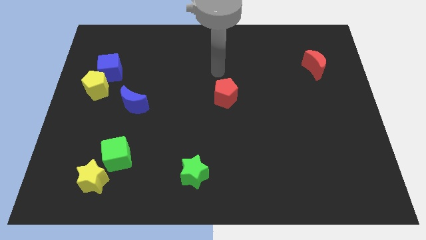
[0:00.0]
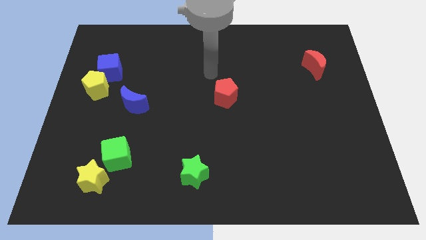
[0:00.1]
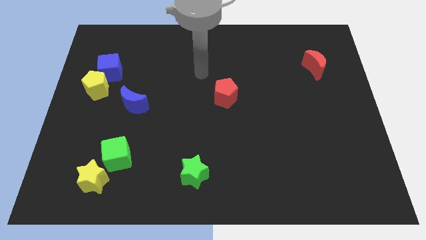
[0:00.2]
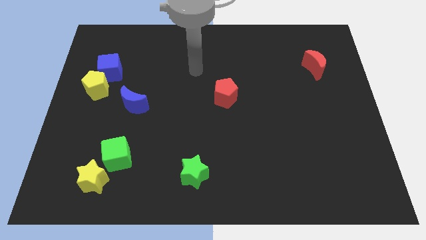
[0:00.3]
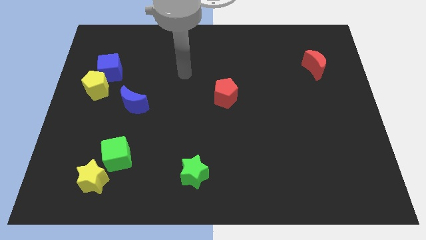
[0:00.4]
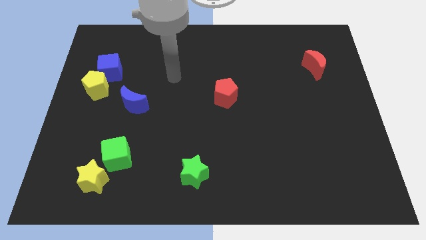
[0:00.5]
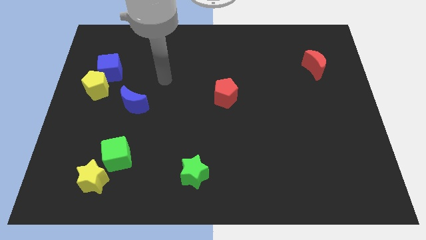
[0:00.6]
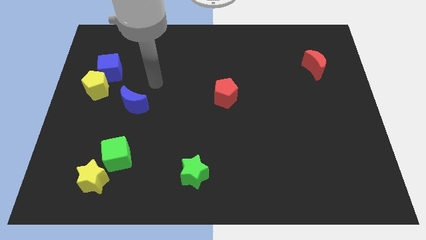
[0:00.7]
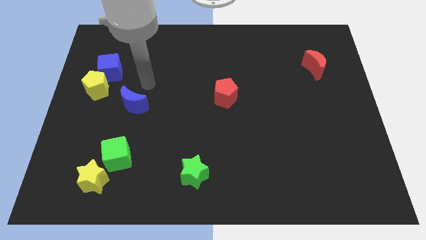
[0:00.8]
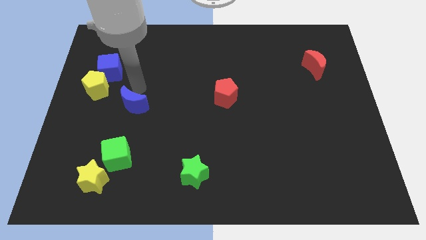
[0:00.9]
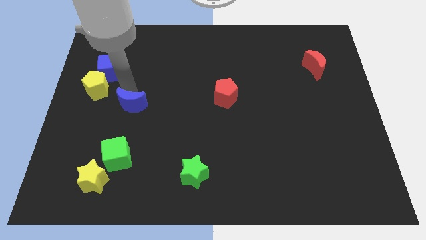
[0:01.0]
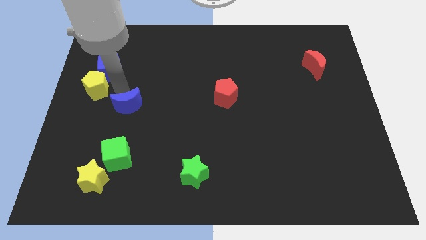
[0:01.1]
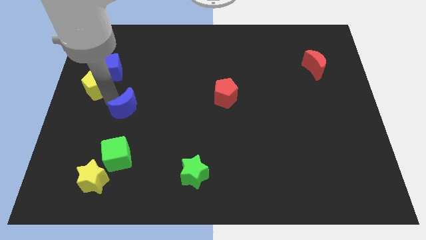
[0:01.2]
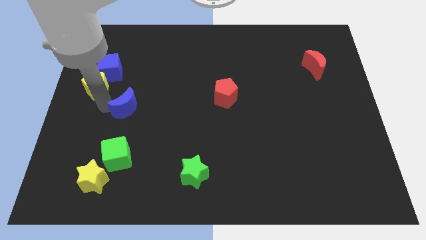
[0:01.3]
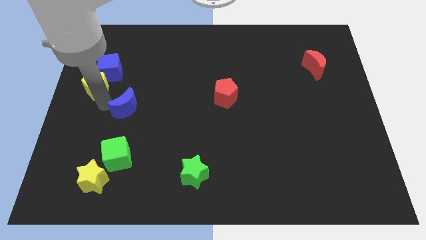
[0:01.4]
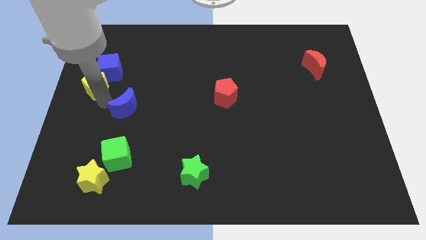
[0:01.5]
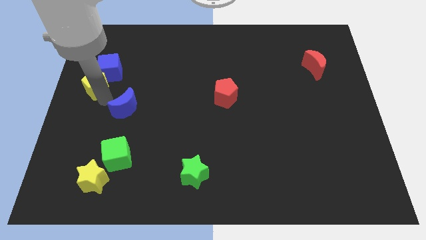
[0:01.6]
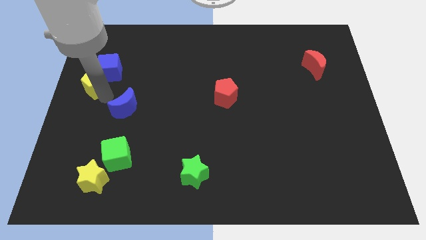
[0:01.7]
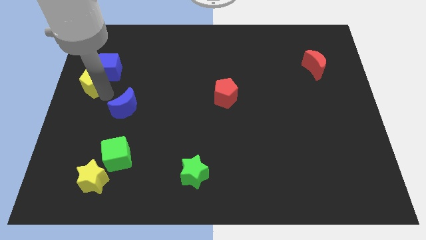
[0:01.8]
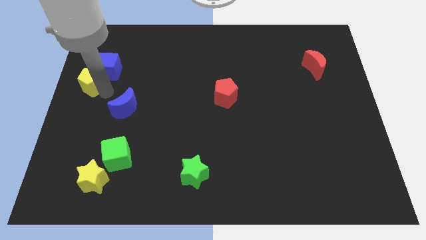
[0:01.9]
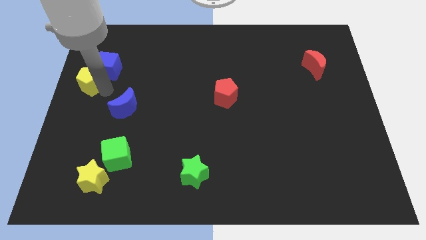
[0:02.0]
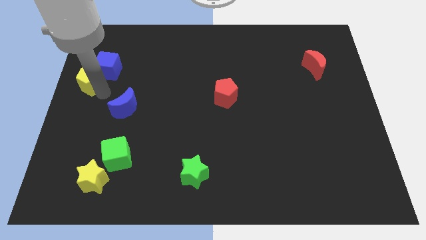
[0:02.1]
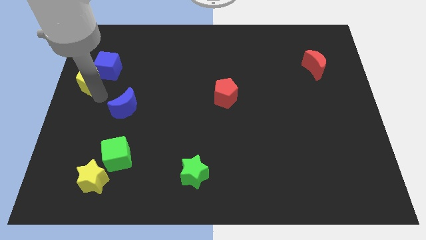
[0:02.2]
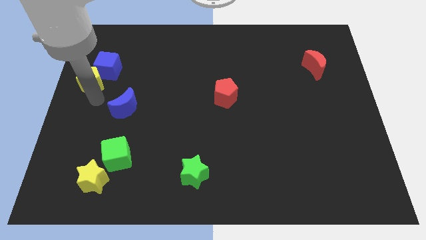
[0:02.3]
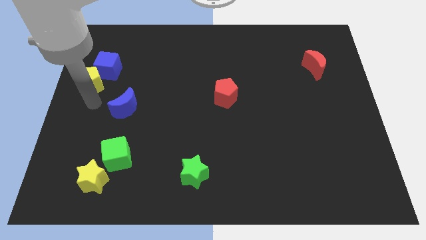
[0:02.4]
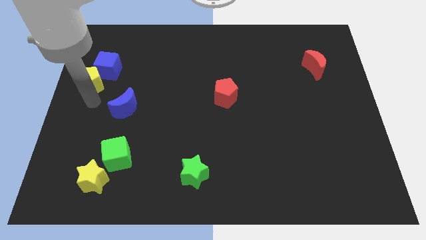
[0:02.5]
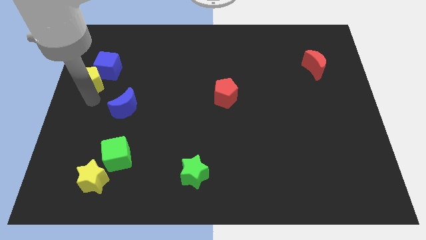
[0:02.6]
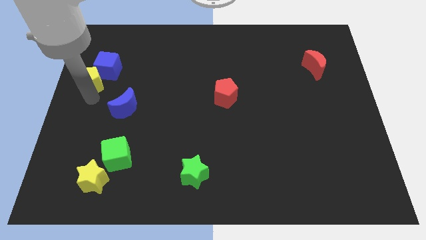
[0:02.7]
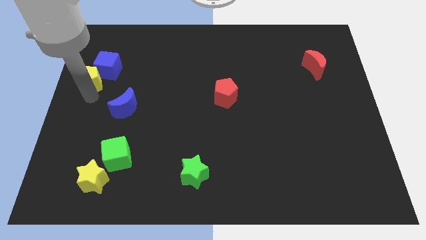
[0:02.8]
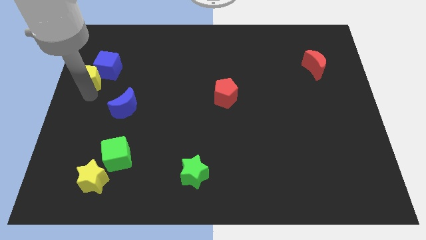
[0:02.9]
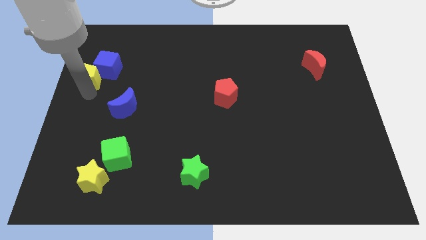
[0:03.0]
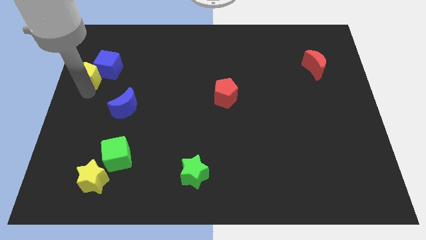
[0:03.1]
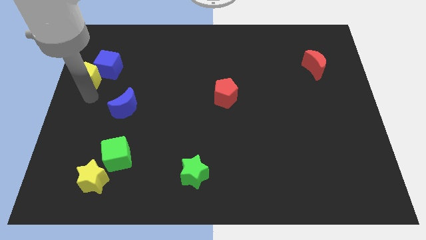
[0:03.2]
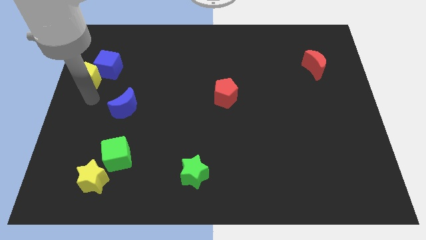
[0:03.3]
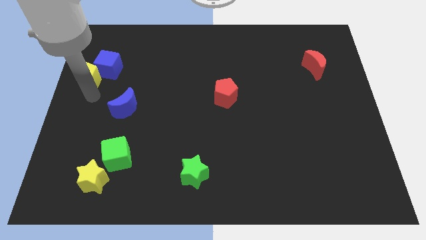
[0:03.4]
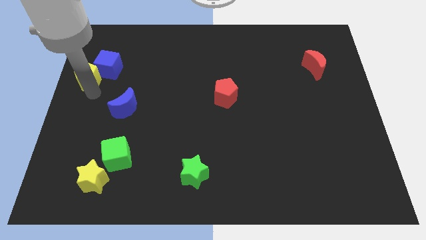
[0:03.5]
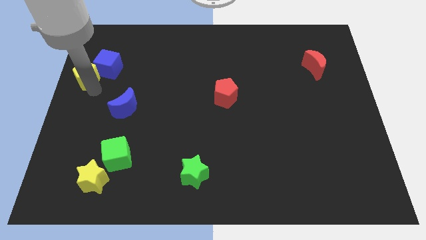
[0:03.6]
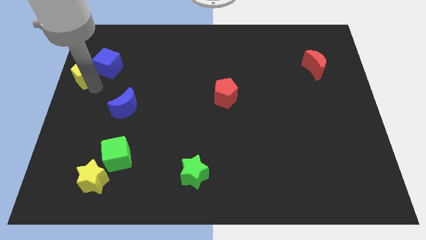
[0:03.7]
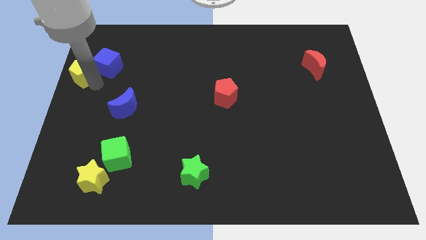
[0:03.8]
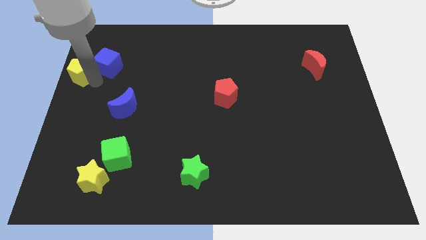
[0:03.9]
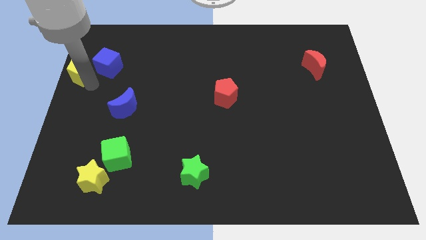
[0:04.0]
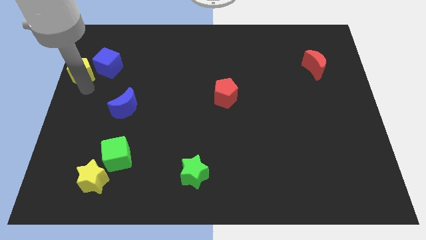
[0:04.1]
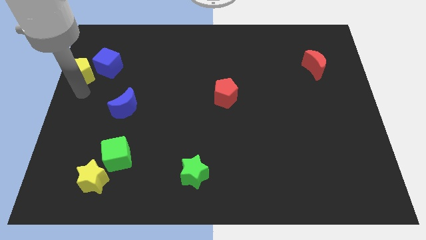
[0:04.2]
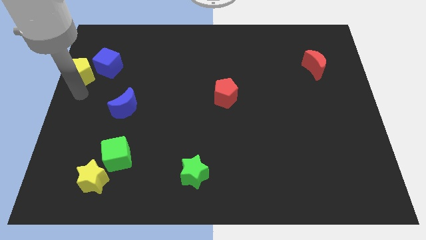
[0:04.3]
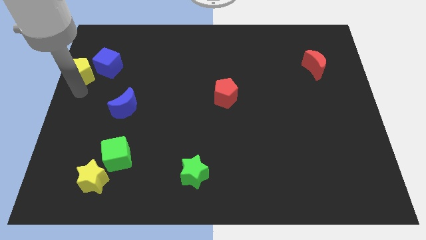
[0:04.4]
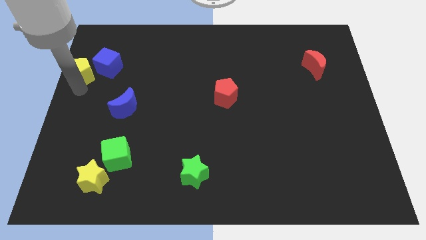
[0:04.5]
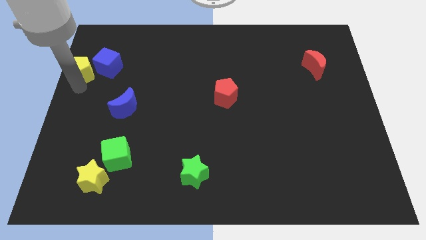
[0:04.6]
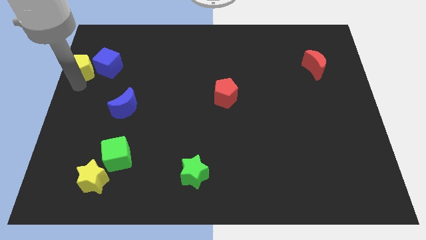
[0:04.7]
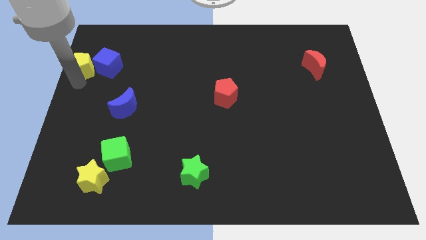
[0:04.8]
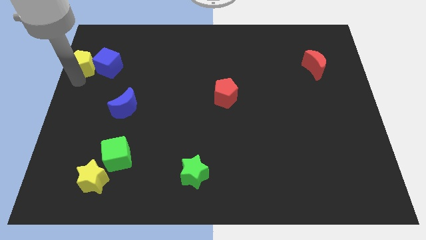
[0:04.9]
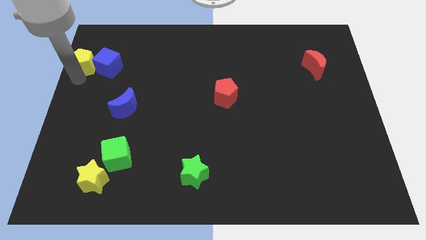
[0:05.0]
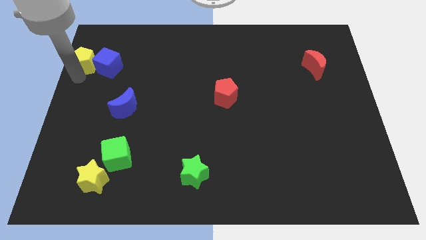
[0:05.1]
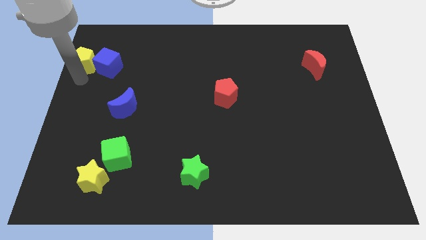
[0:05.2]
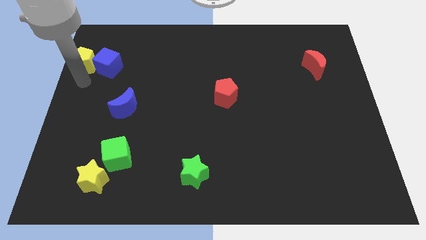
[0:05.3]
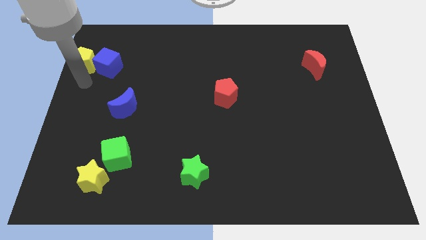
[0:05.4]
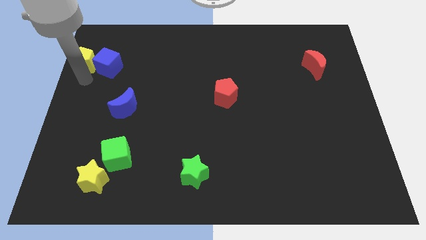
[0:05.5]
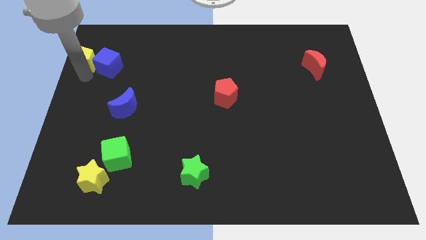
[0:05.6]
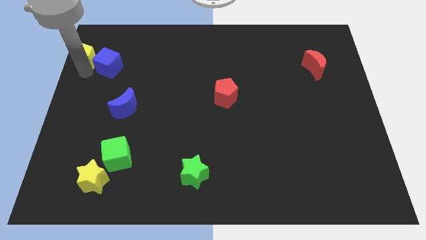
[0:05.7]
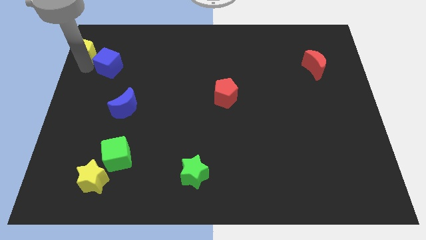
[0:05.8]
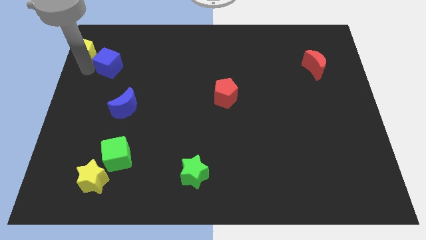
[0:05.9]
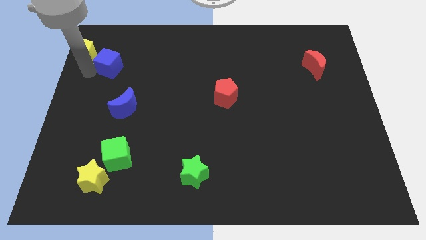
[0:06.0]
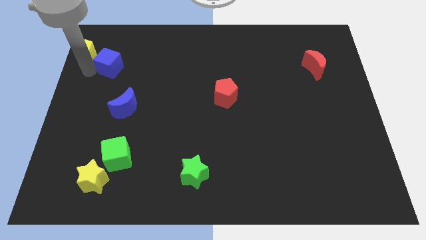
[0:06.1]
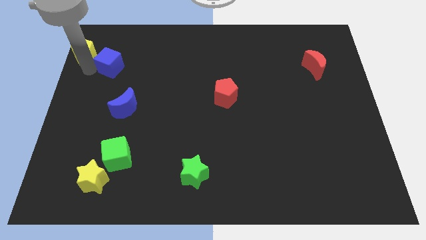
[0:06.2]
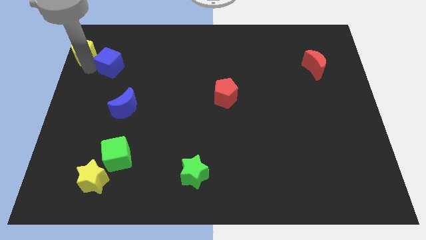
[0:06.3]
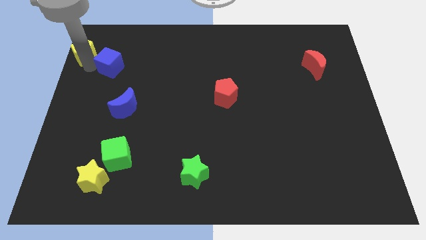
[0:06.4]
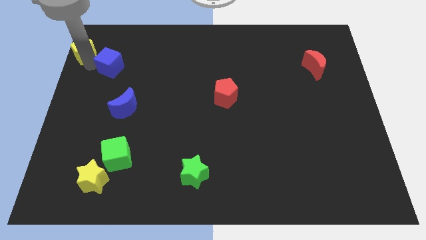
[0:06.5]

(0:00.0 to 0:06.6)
slide the yellow pentagon to the top left

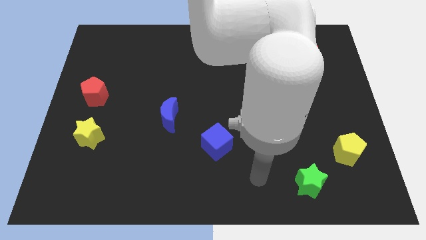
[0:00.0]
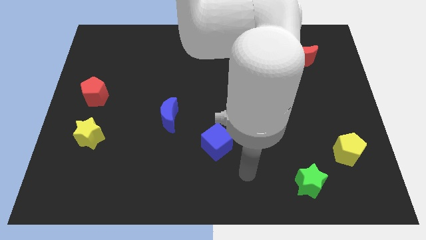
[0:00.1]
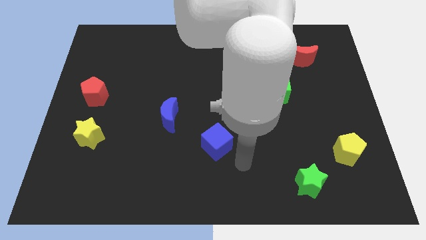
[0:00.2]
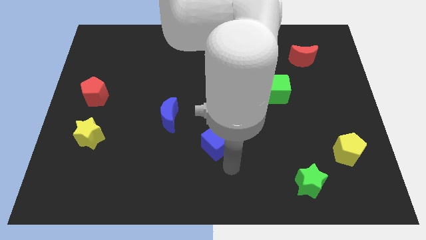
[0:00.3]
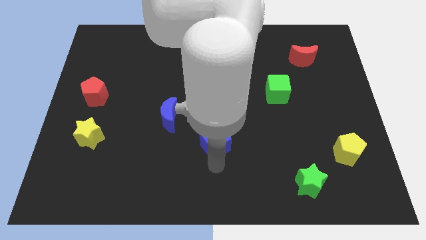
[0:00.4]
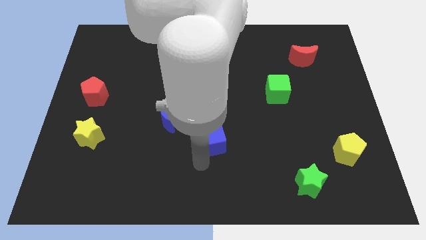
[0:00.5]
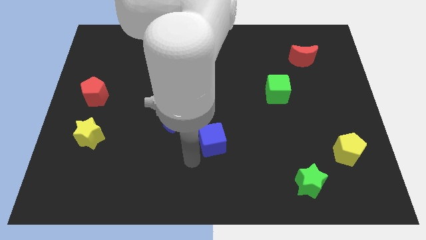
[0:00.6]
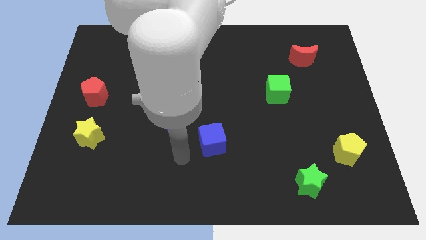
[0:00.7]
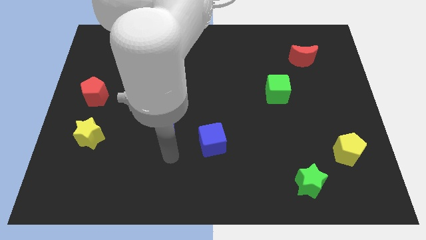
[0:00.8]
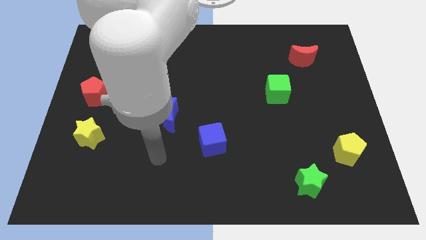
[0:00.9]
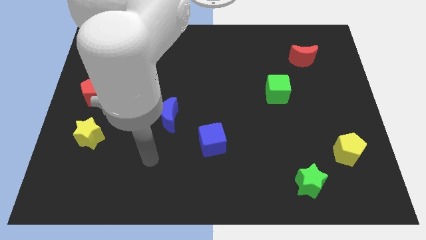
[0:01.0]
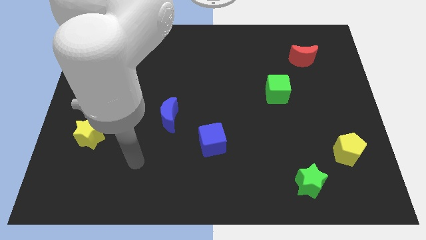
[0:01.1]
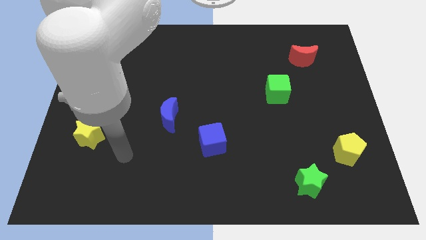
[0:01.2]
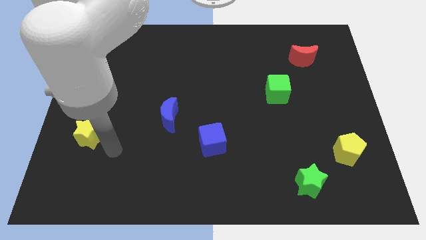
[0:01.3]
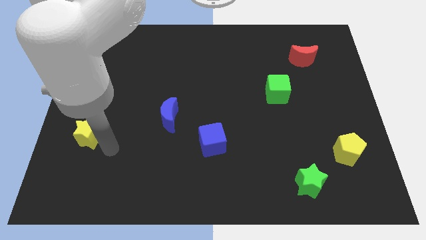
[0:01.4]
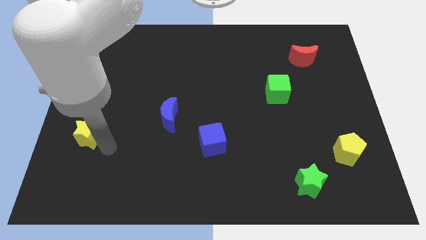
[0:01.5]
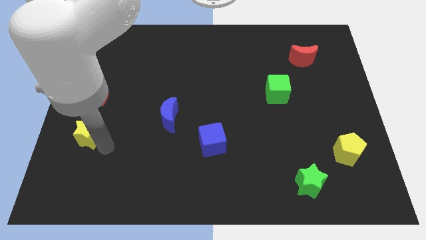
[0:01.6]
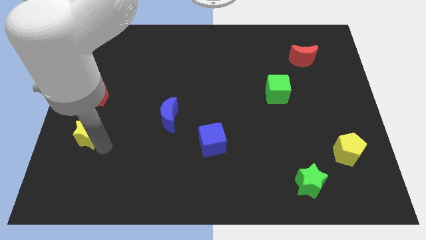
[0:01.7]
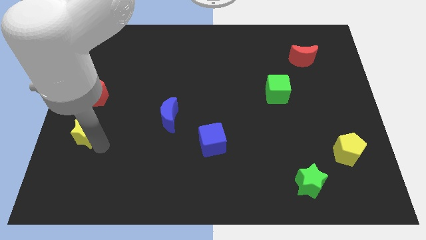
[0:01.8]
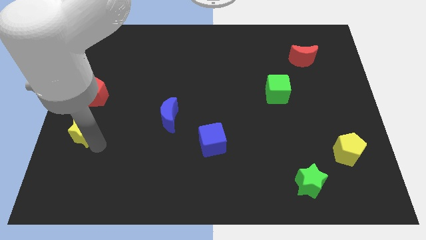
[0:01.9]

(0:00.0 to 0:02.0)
slide the yellow star to the left side
